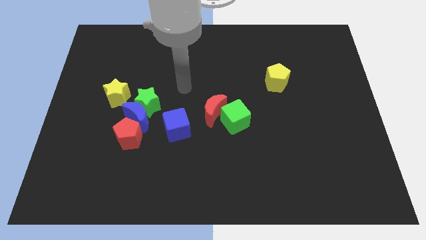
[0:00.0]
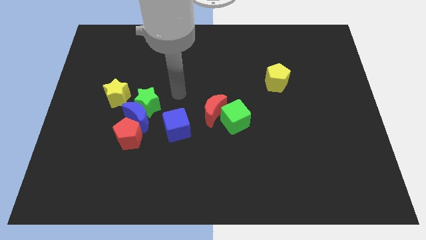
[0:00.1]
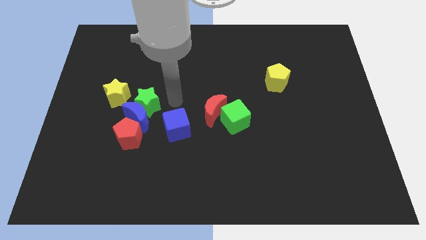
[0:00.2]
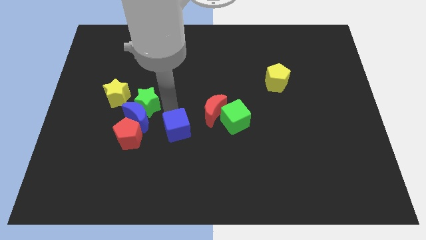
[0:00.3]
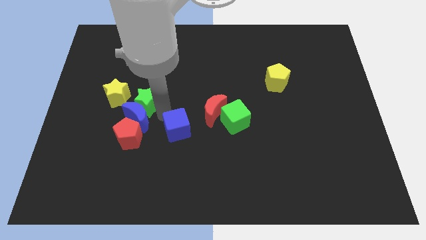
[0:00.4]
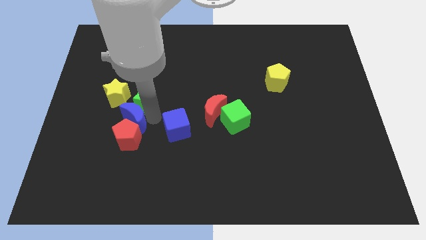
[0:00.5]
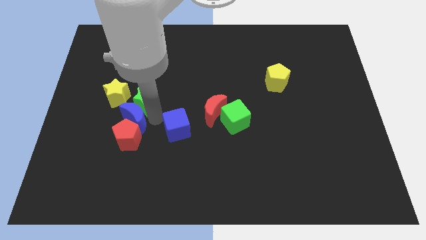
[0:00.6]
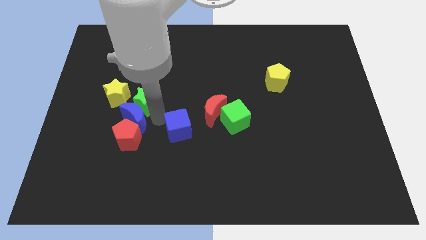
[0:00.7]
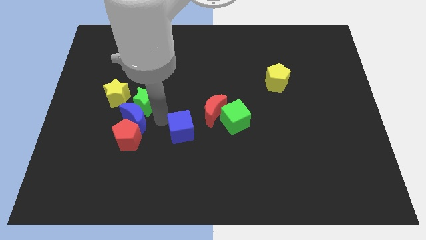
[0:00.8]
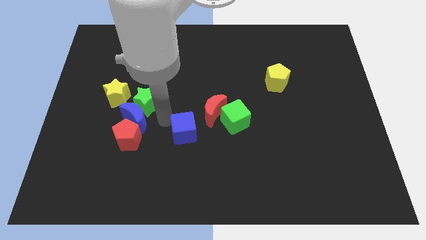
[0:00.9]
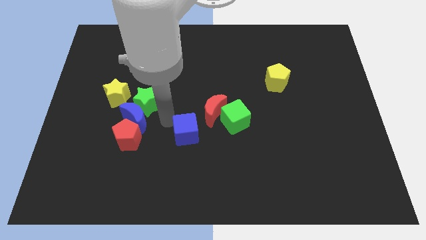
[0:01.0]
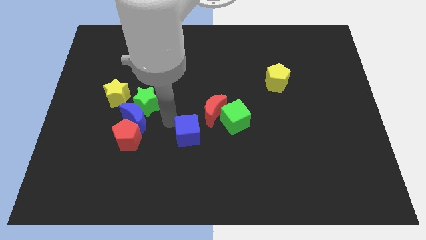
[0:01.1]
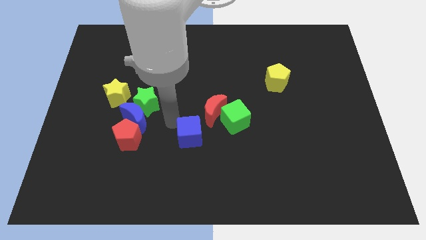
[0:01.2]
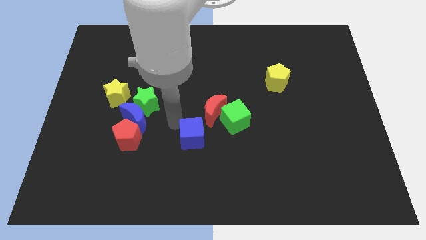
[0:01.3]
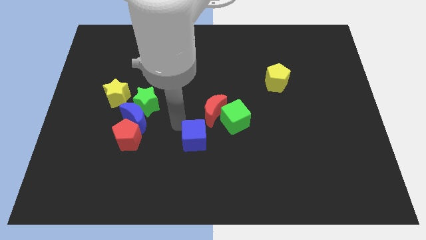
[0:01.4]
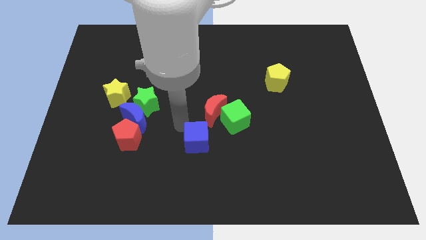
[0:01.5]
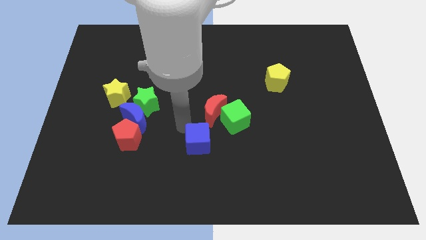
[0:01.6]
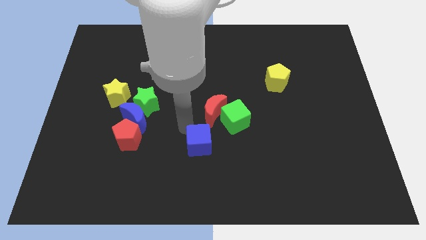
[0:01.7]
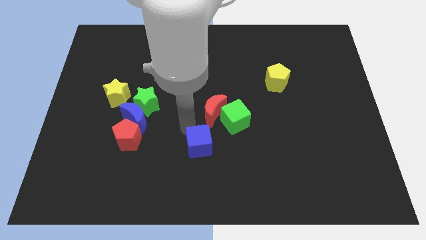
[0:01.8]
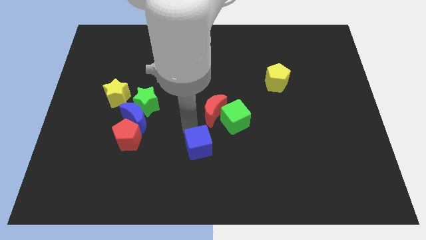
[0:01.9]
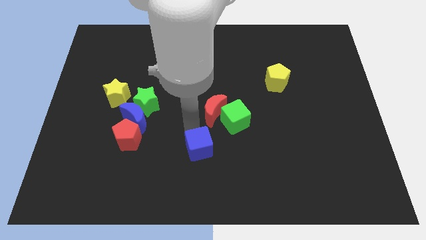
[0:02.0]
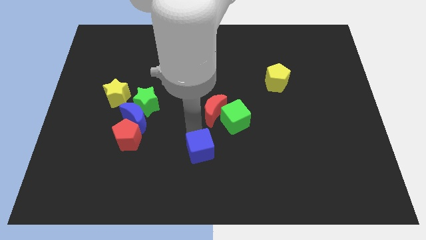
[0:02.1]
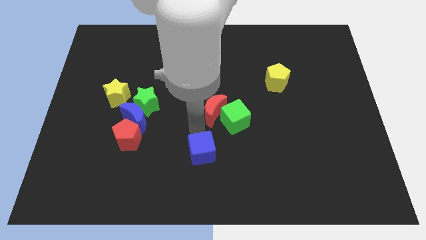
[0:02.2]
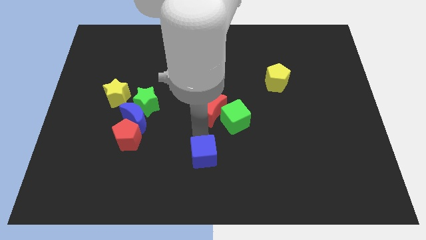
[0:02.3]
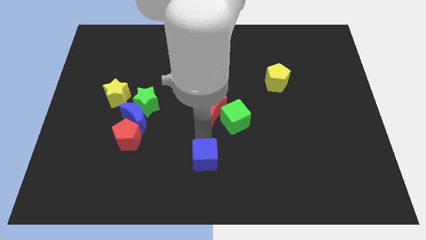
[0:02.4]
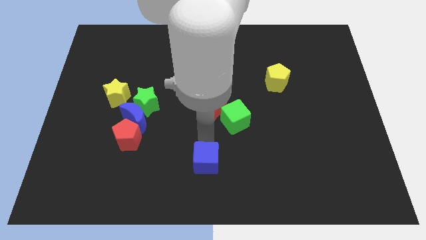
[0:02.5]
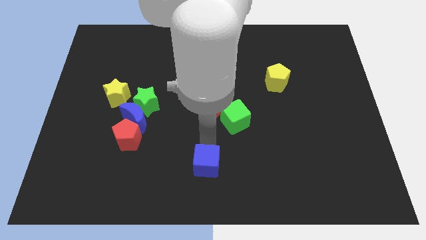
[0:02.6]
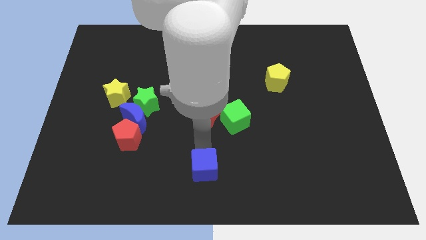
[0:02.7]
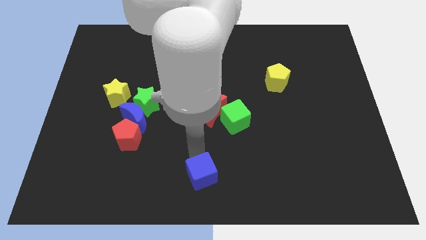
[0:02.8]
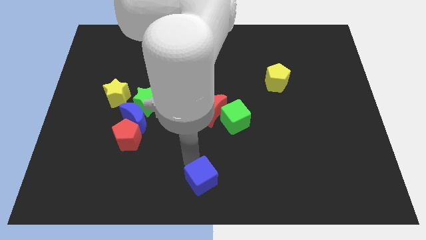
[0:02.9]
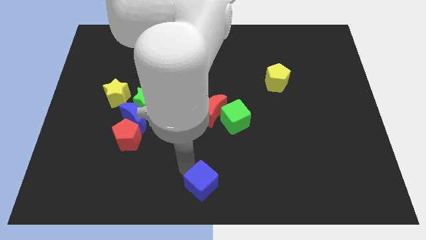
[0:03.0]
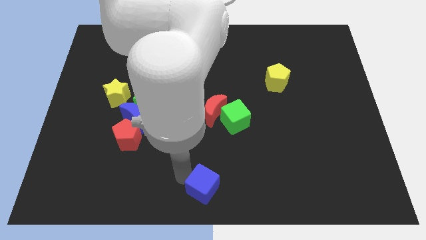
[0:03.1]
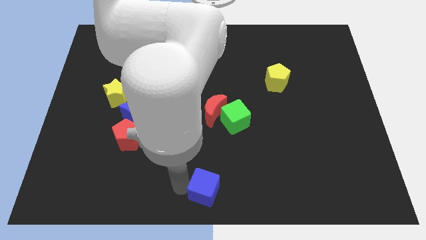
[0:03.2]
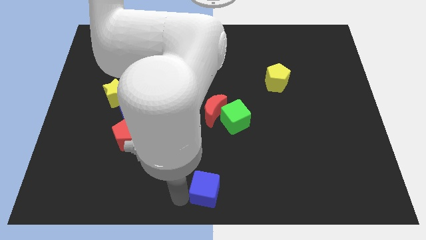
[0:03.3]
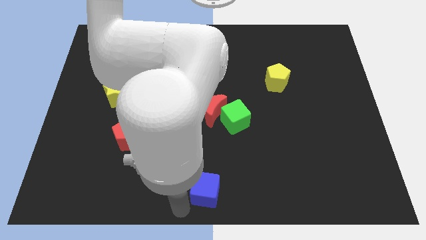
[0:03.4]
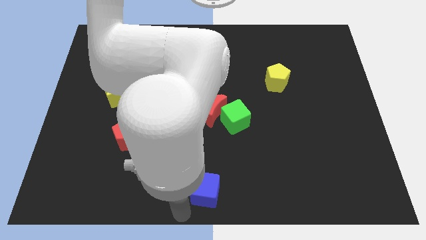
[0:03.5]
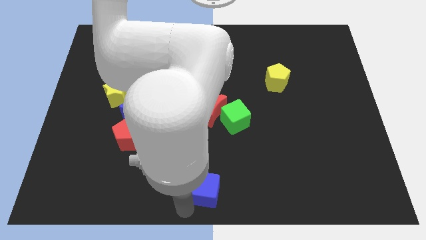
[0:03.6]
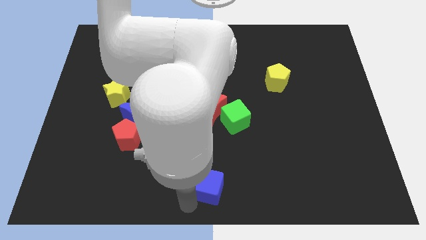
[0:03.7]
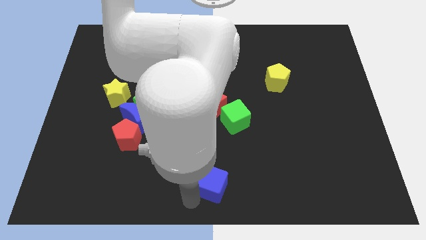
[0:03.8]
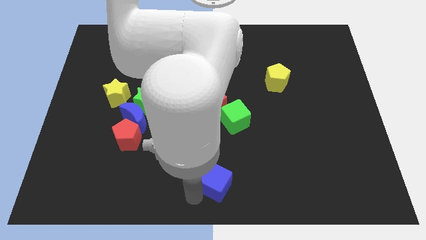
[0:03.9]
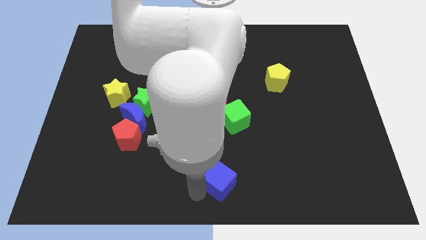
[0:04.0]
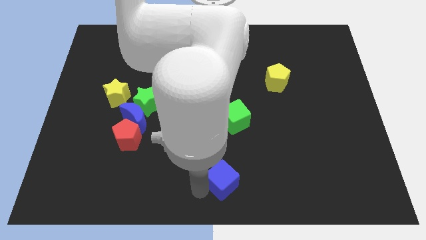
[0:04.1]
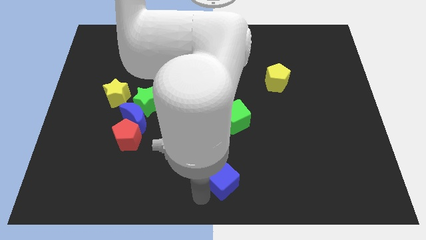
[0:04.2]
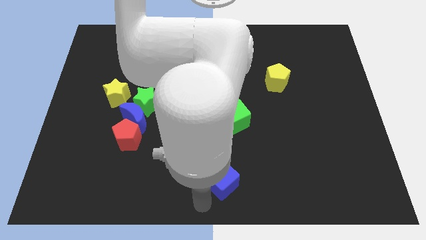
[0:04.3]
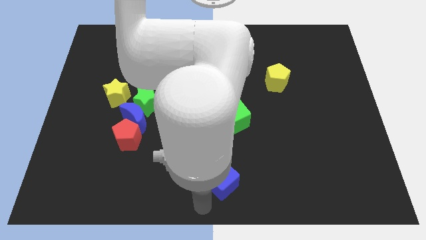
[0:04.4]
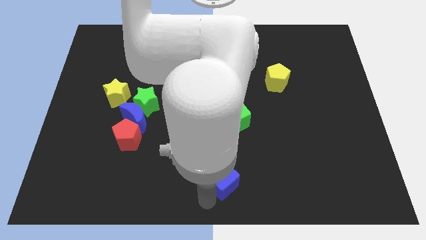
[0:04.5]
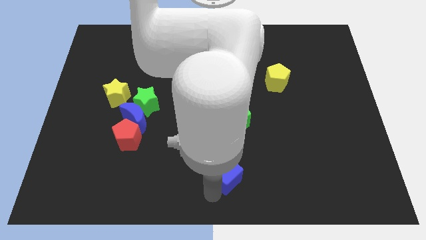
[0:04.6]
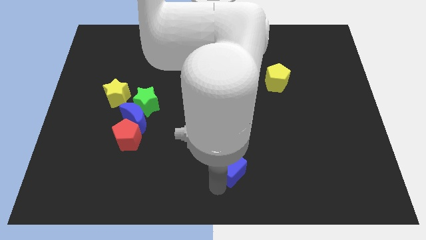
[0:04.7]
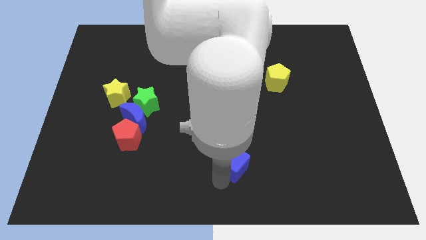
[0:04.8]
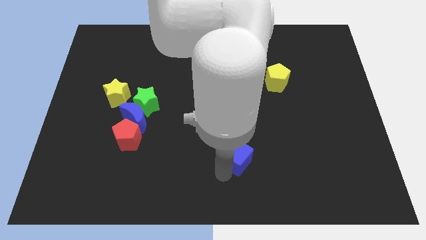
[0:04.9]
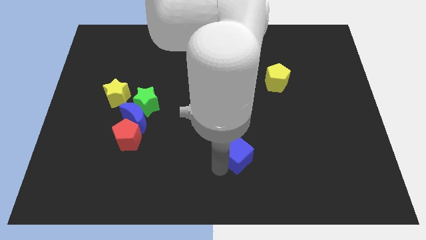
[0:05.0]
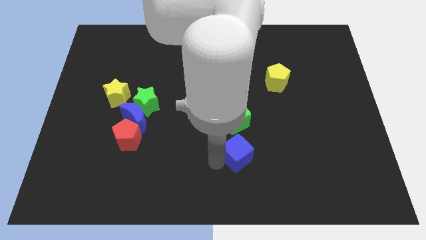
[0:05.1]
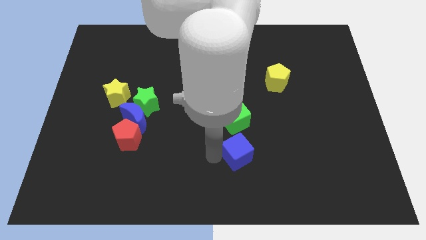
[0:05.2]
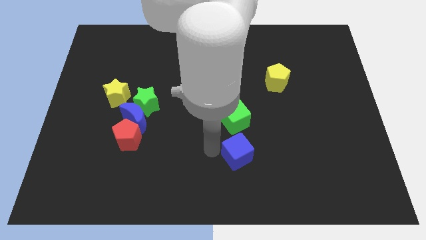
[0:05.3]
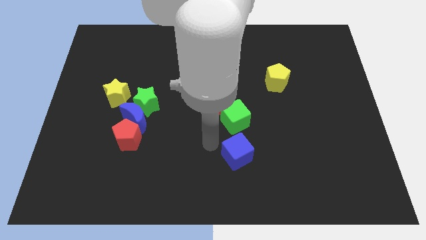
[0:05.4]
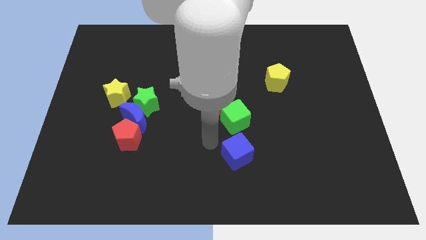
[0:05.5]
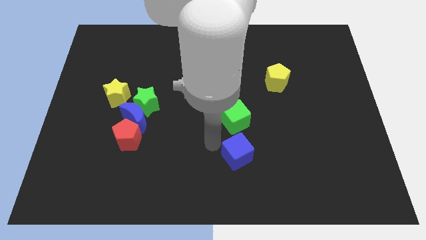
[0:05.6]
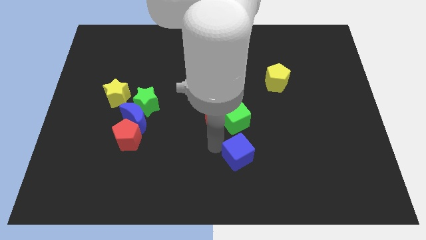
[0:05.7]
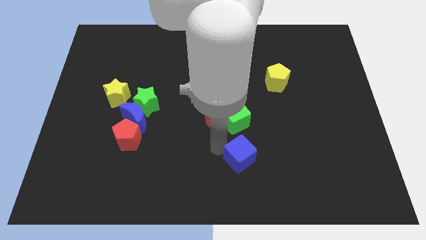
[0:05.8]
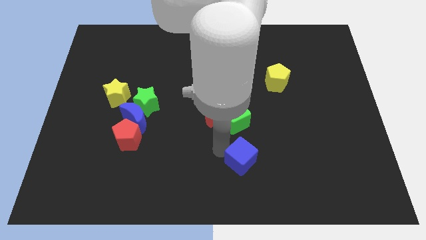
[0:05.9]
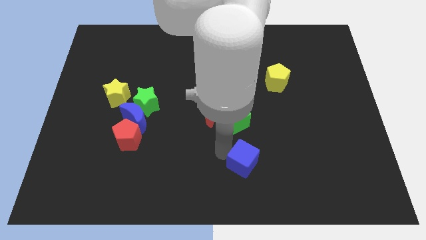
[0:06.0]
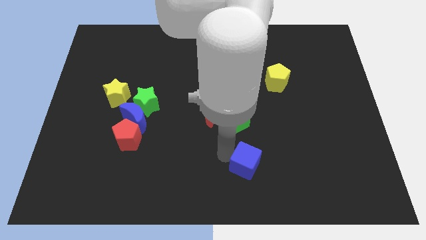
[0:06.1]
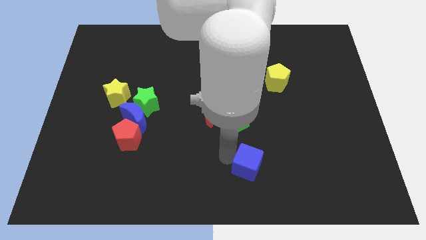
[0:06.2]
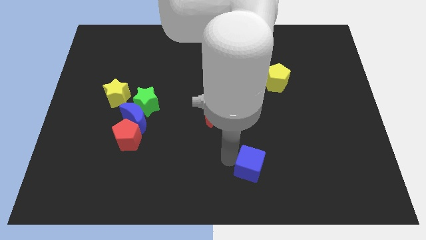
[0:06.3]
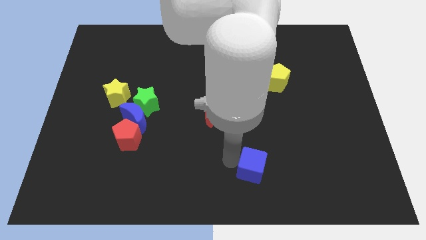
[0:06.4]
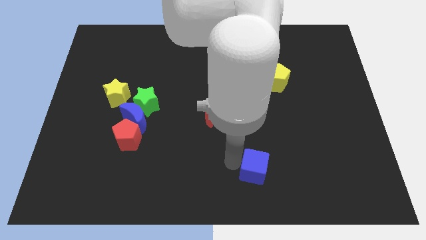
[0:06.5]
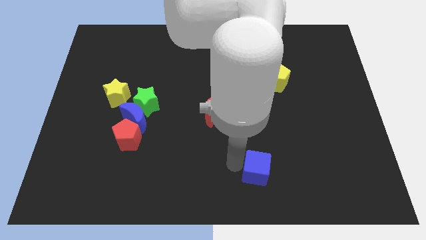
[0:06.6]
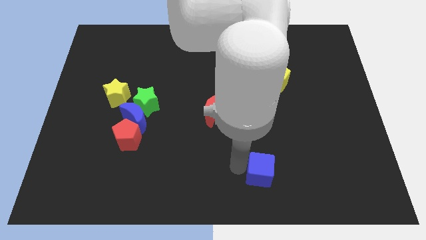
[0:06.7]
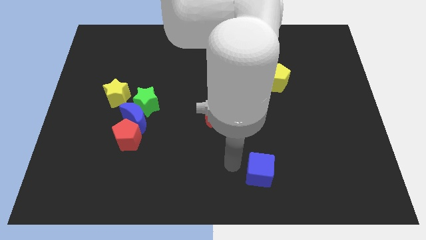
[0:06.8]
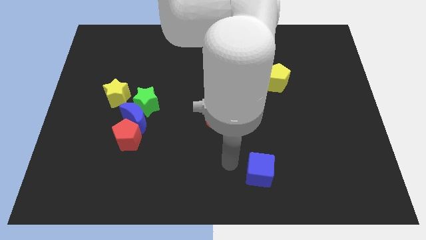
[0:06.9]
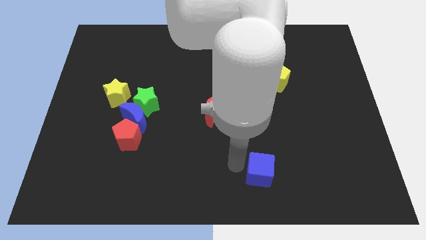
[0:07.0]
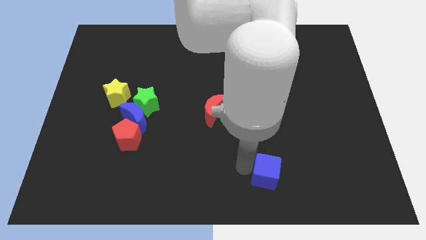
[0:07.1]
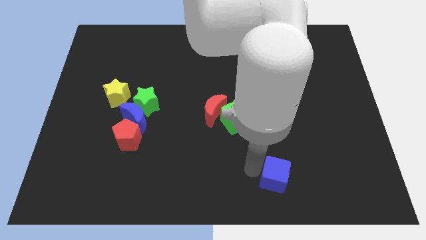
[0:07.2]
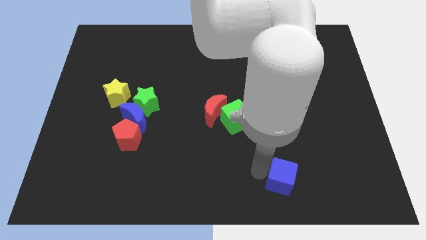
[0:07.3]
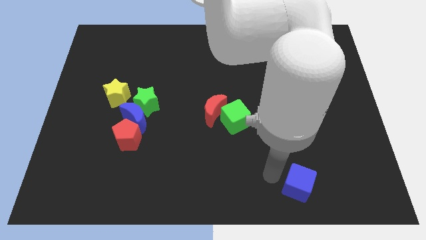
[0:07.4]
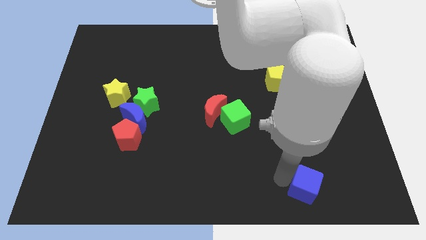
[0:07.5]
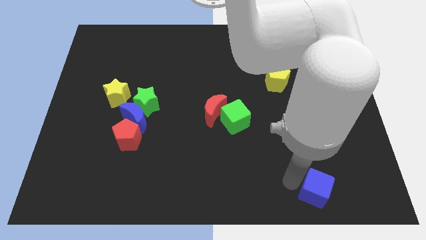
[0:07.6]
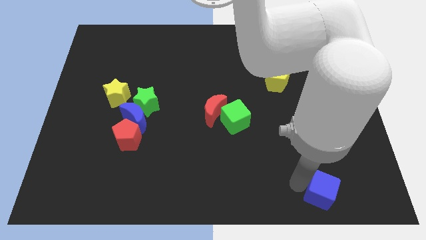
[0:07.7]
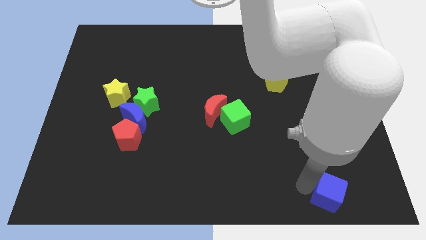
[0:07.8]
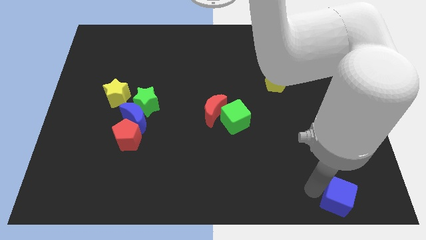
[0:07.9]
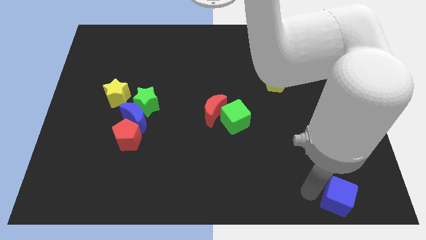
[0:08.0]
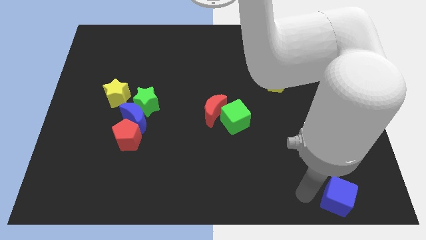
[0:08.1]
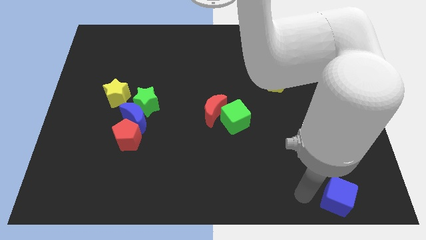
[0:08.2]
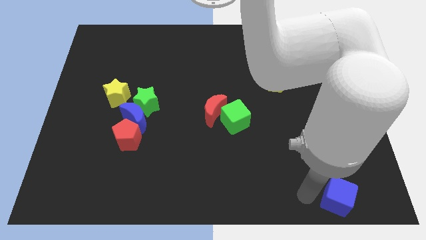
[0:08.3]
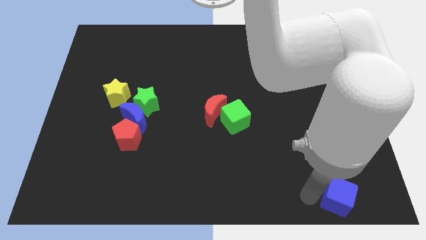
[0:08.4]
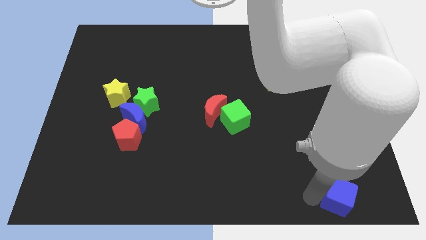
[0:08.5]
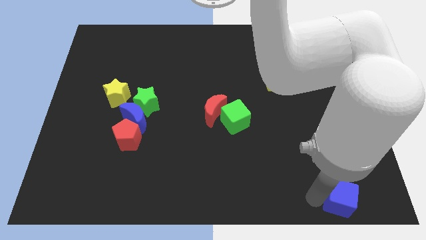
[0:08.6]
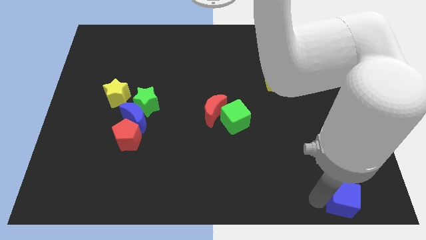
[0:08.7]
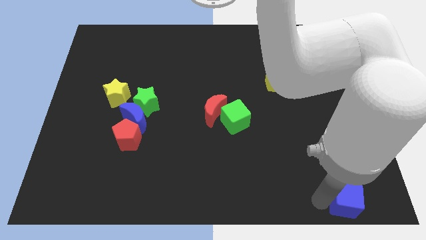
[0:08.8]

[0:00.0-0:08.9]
slide the blue cube to the bottom right
